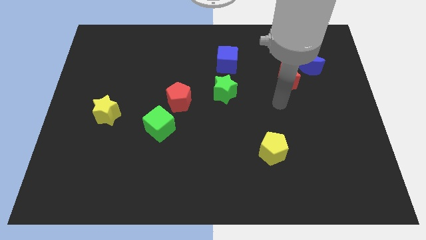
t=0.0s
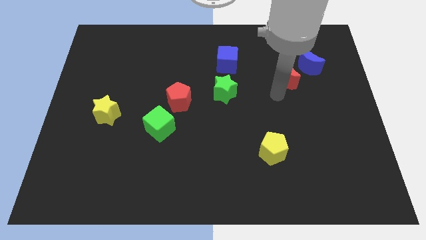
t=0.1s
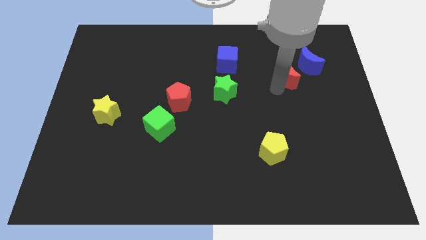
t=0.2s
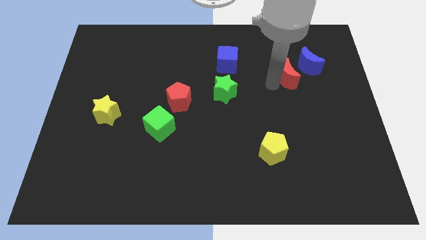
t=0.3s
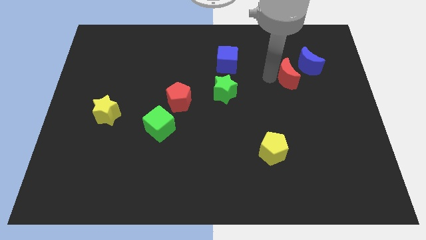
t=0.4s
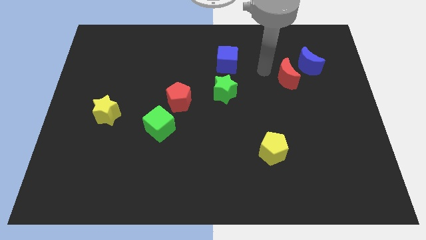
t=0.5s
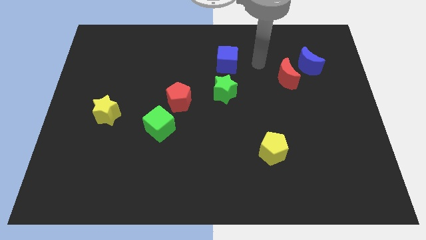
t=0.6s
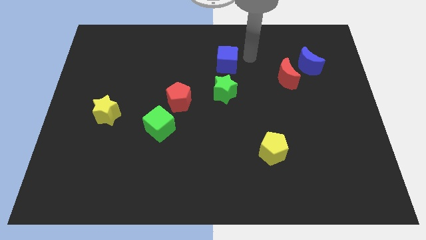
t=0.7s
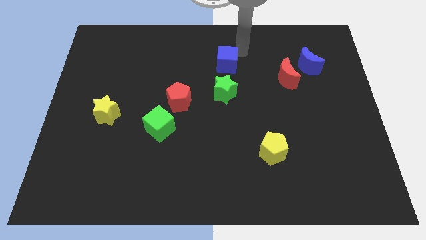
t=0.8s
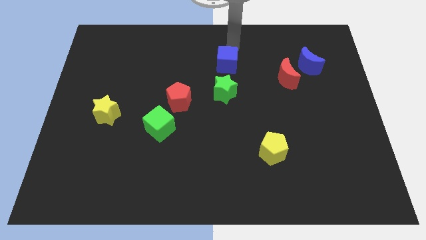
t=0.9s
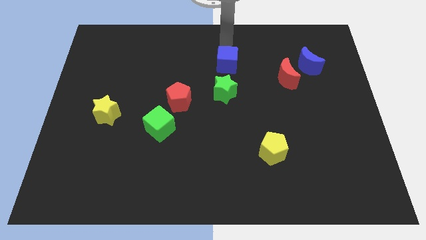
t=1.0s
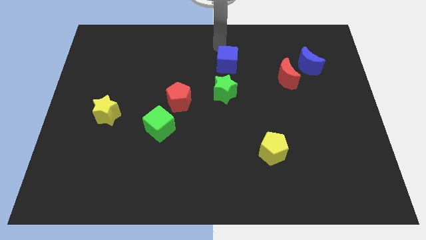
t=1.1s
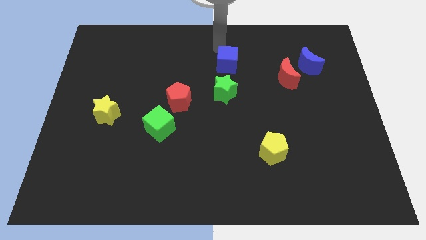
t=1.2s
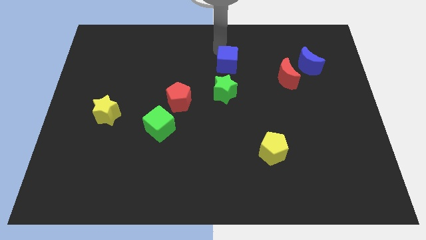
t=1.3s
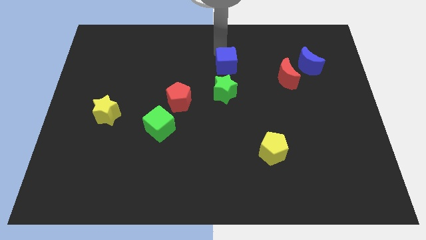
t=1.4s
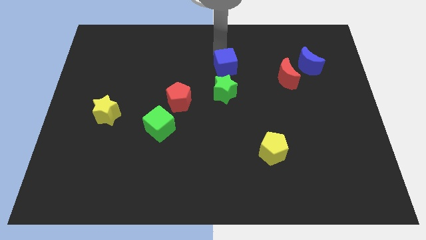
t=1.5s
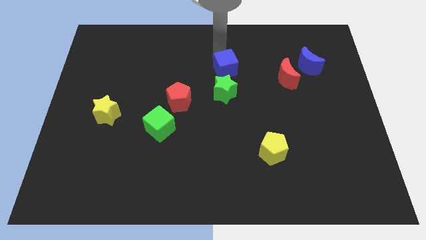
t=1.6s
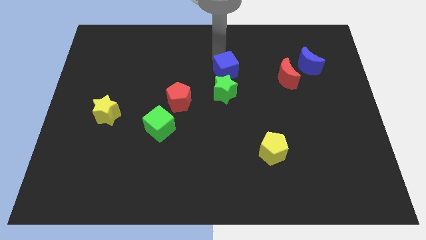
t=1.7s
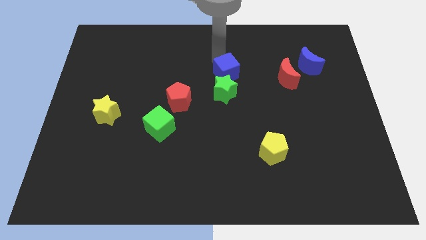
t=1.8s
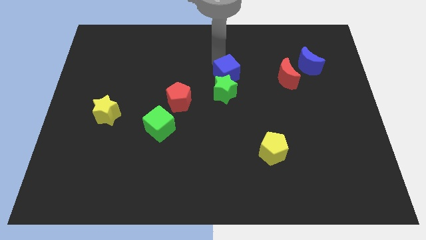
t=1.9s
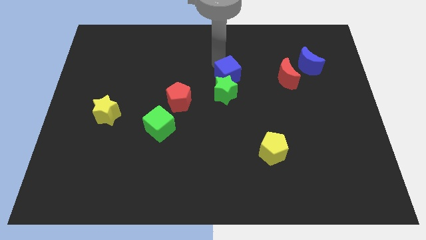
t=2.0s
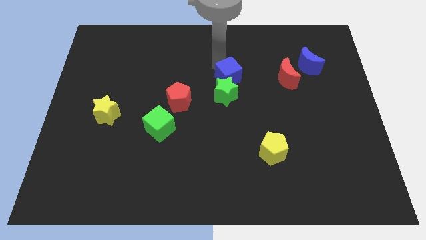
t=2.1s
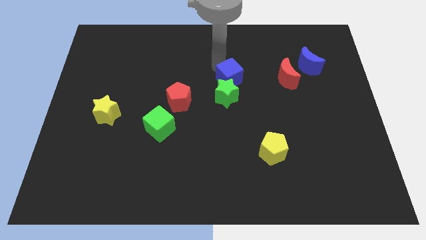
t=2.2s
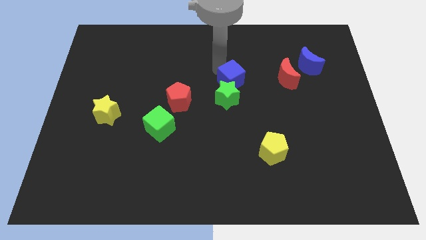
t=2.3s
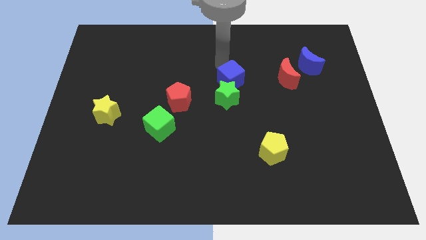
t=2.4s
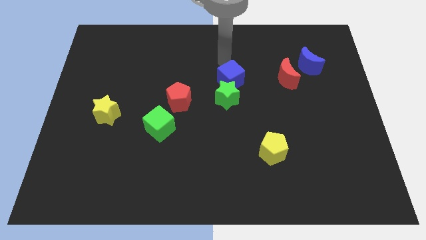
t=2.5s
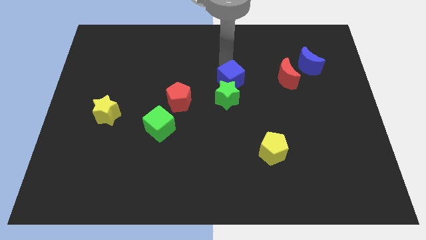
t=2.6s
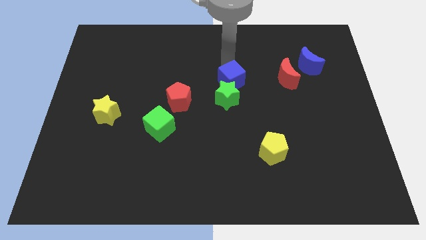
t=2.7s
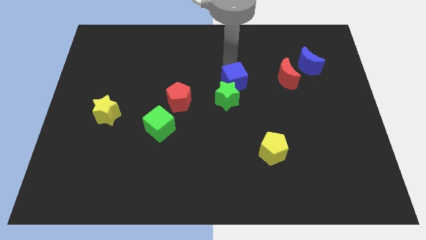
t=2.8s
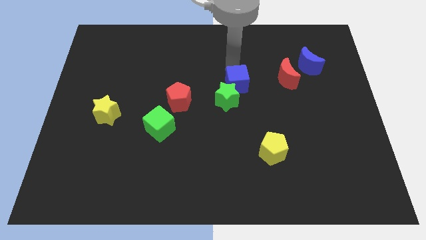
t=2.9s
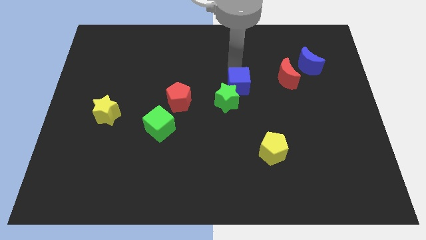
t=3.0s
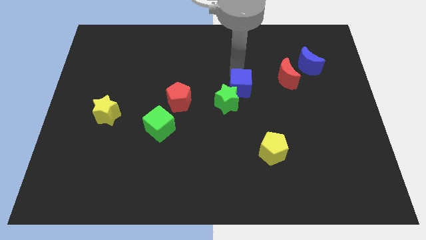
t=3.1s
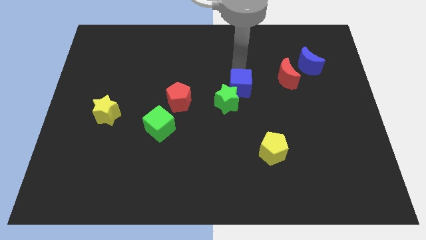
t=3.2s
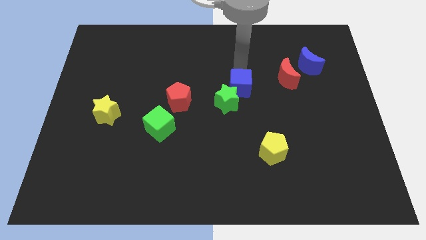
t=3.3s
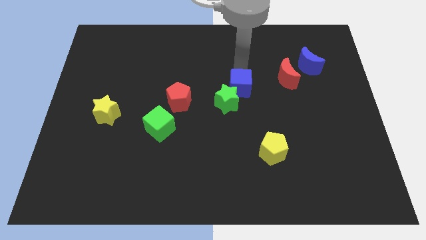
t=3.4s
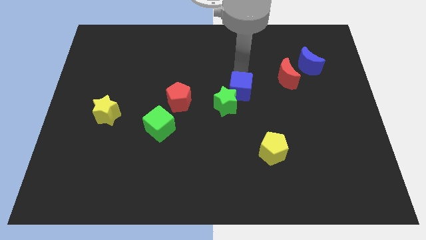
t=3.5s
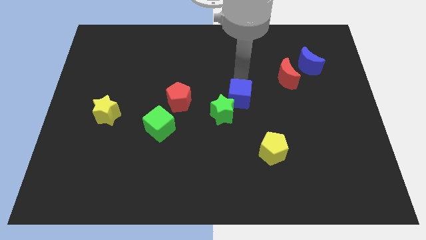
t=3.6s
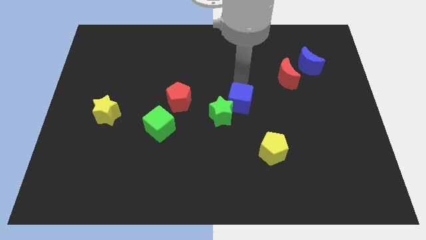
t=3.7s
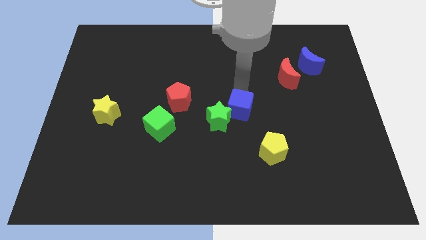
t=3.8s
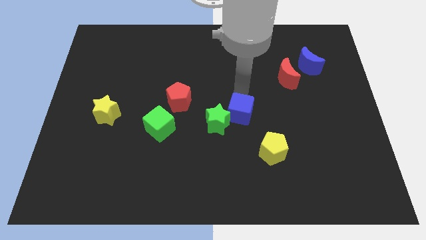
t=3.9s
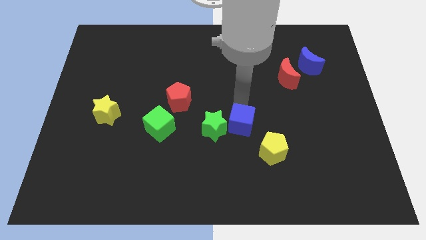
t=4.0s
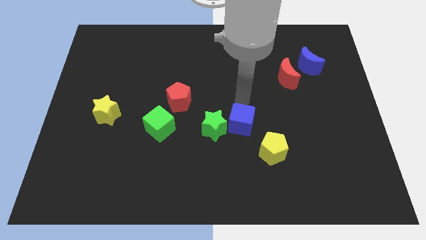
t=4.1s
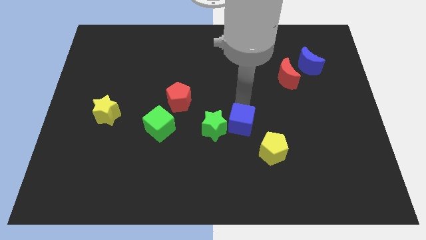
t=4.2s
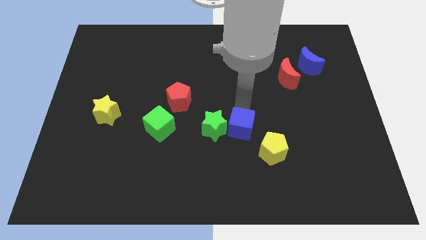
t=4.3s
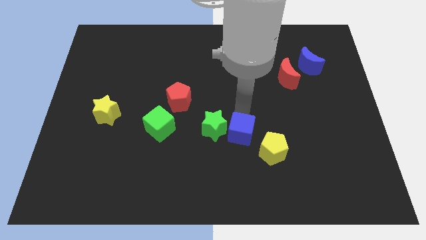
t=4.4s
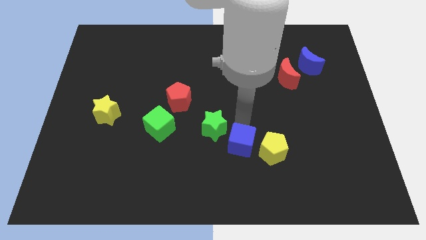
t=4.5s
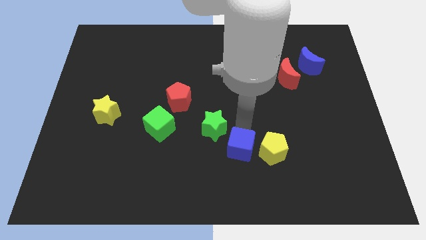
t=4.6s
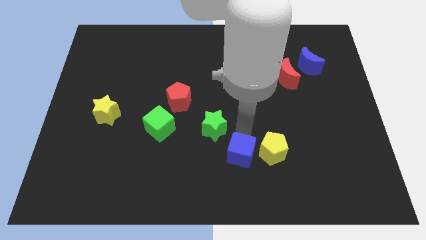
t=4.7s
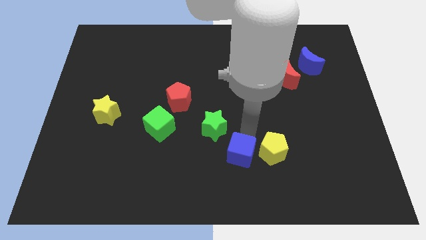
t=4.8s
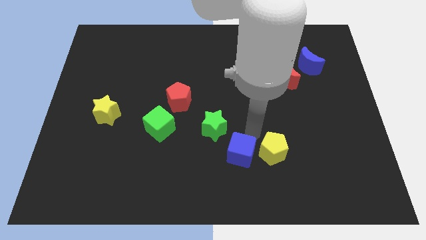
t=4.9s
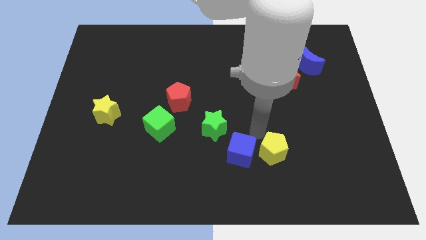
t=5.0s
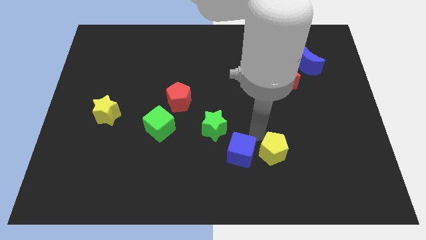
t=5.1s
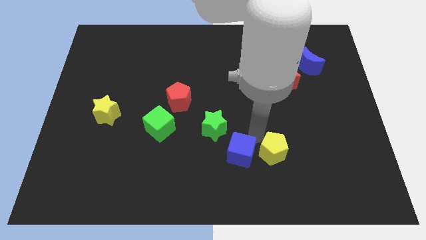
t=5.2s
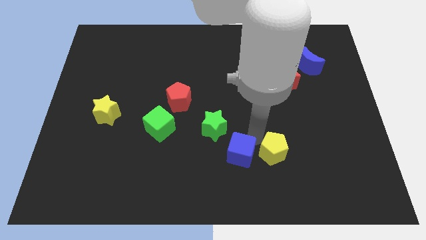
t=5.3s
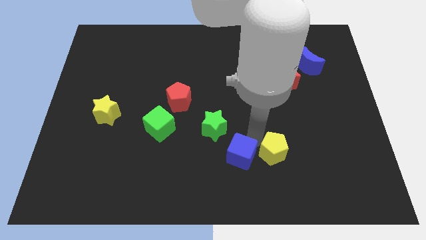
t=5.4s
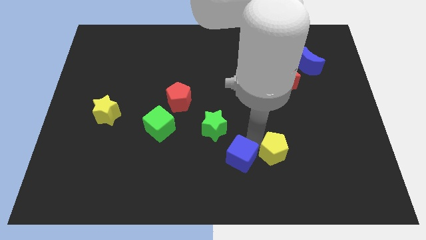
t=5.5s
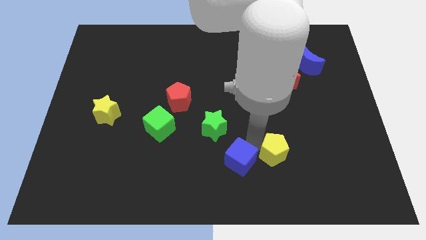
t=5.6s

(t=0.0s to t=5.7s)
slide the blue cube to the bottom

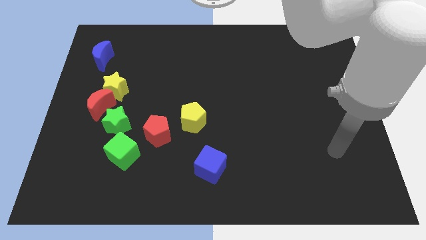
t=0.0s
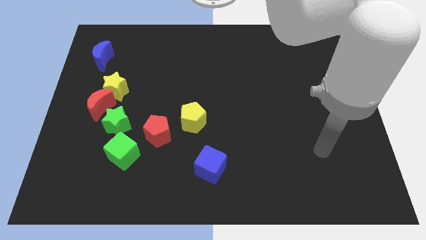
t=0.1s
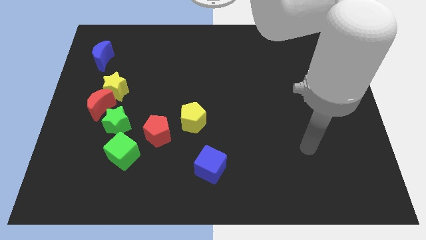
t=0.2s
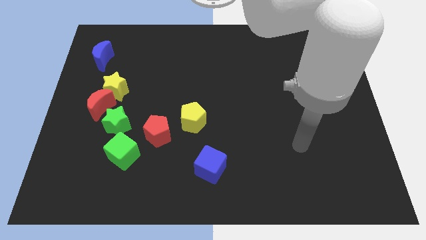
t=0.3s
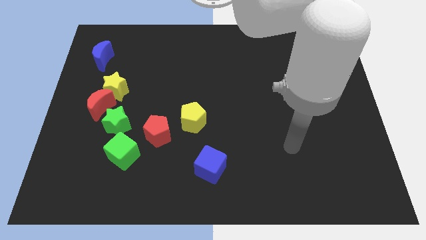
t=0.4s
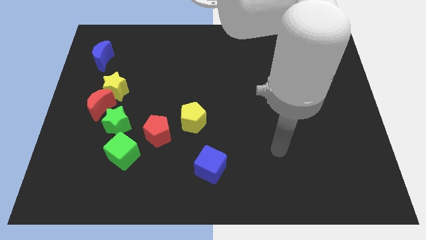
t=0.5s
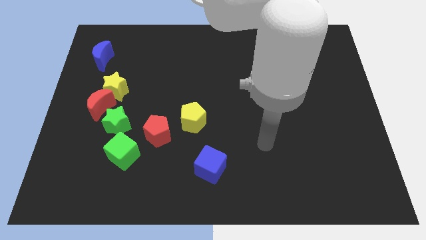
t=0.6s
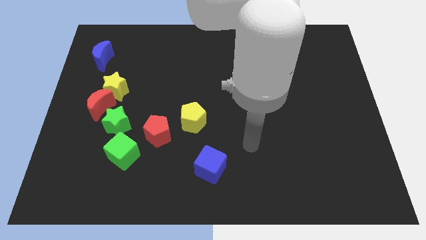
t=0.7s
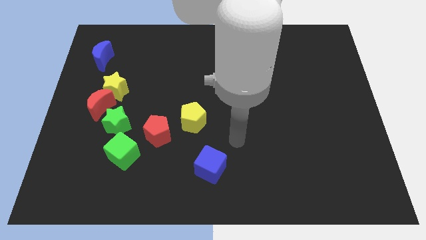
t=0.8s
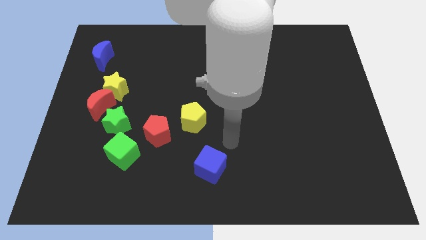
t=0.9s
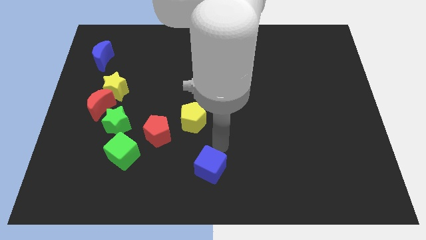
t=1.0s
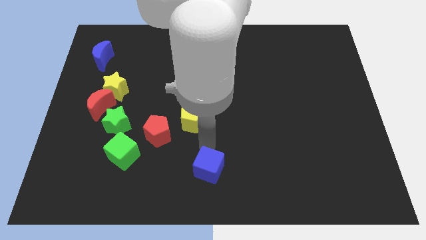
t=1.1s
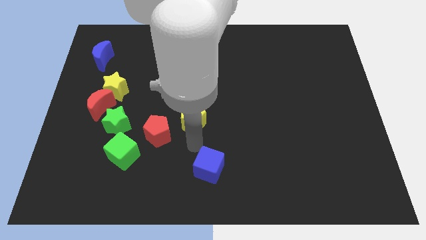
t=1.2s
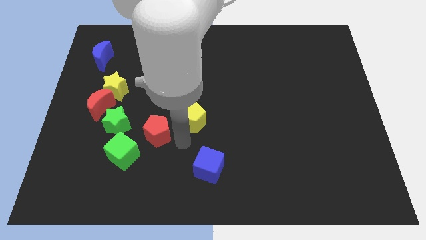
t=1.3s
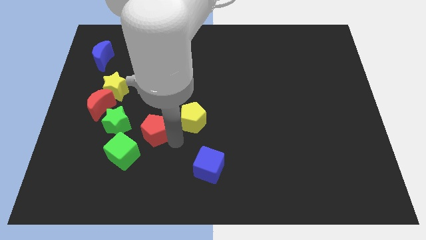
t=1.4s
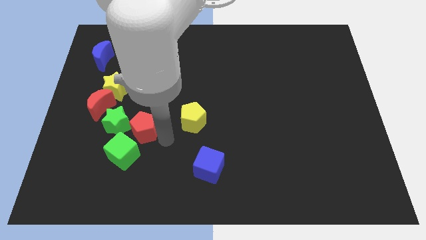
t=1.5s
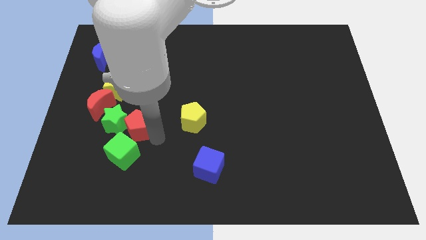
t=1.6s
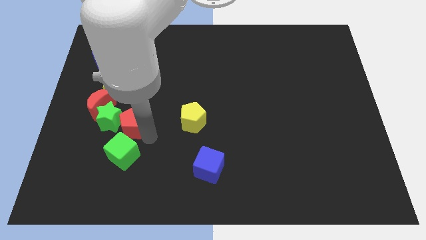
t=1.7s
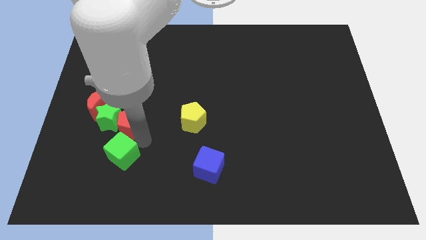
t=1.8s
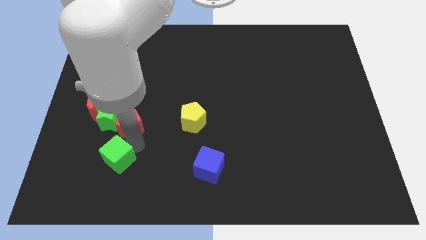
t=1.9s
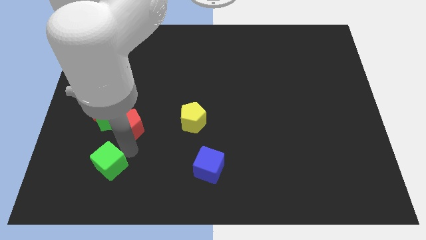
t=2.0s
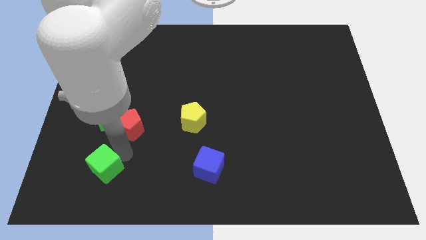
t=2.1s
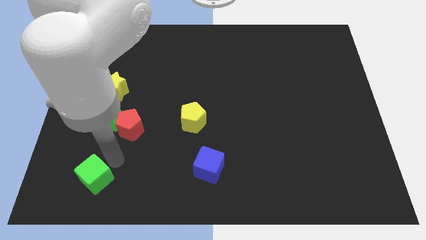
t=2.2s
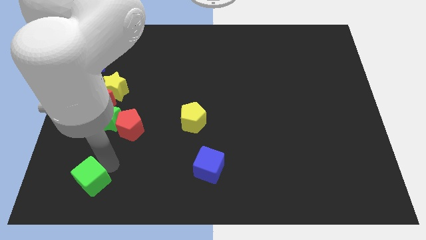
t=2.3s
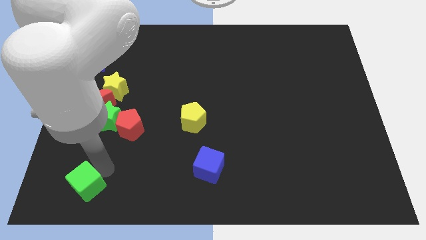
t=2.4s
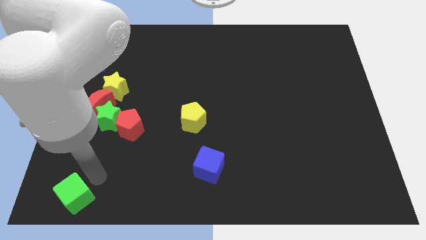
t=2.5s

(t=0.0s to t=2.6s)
push the green cube to the bottom left

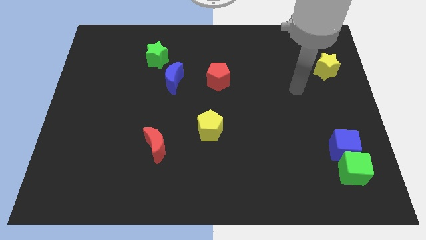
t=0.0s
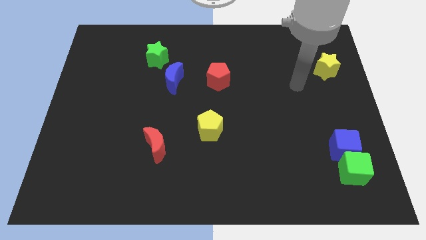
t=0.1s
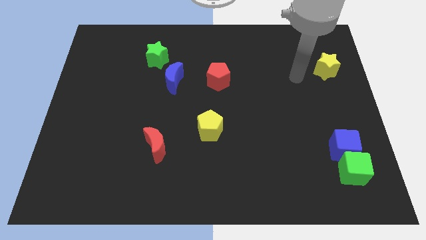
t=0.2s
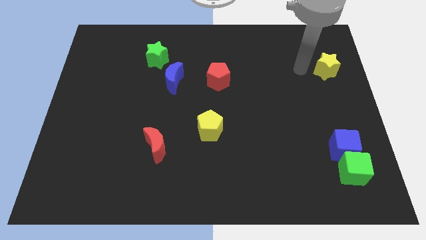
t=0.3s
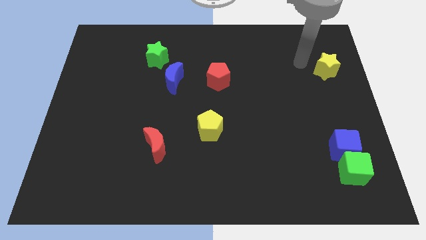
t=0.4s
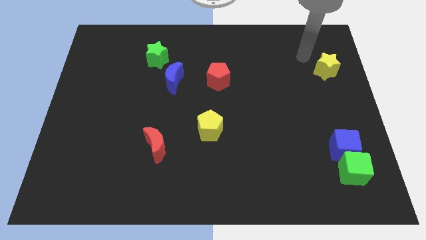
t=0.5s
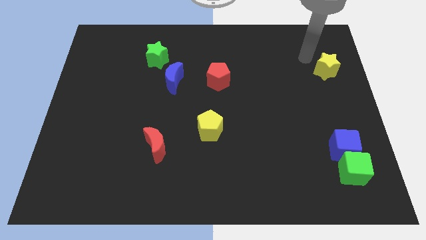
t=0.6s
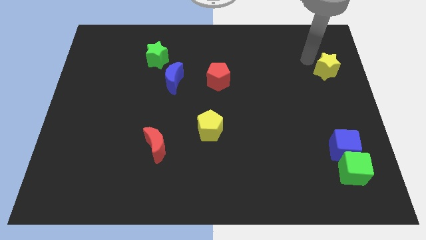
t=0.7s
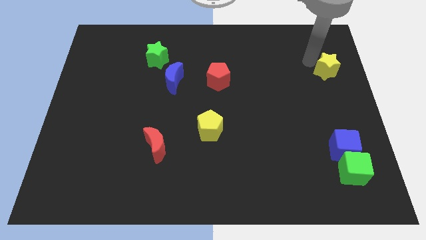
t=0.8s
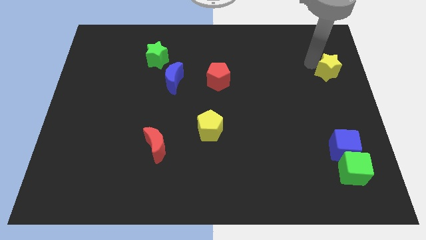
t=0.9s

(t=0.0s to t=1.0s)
put the yellow star to the center right
